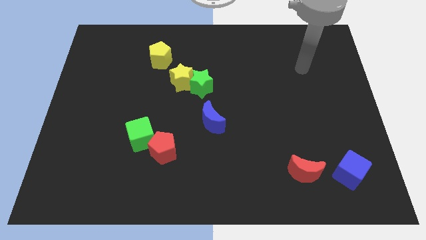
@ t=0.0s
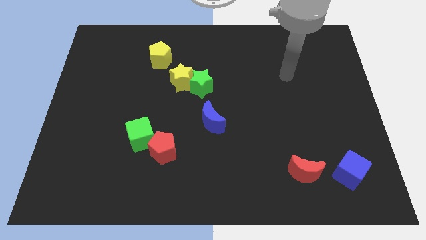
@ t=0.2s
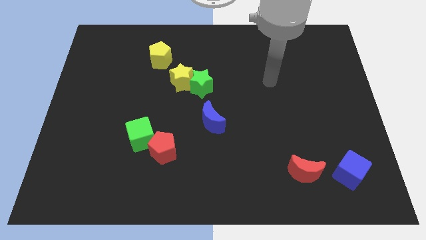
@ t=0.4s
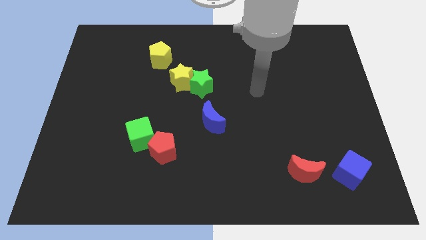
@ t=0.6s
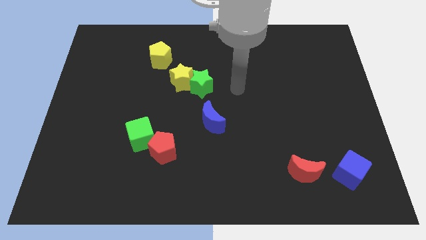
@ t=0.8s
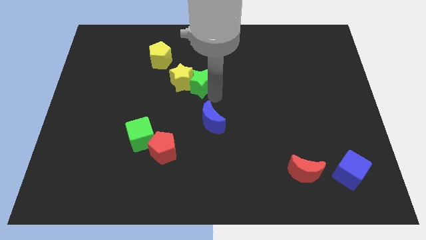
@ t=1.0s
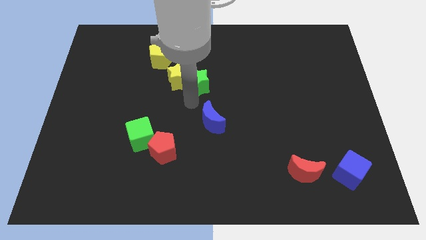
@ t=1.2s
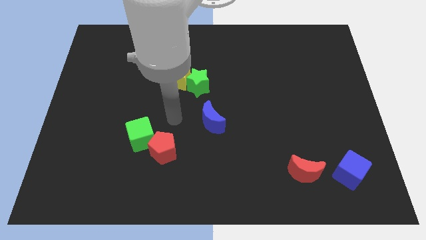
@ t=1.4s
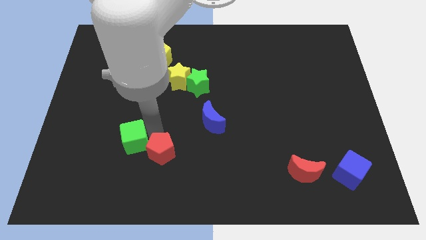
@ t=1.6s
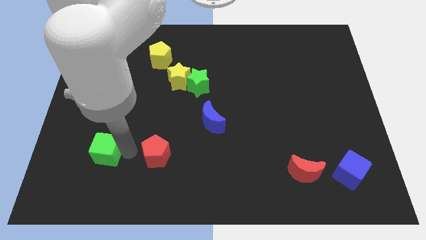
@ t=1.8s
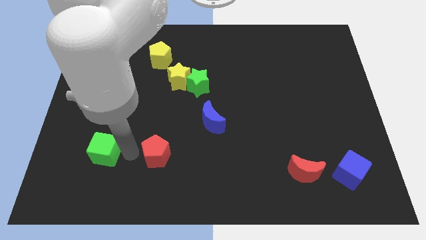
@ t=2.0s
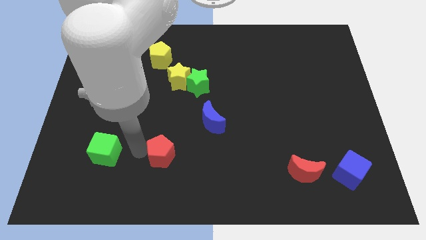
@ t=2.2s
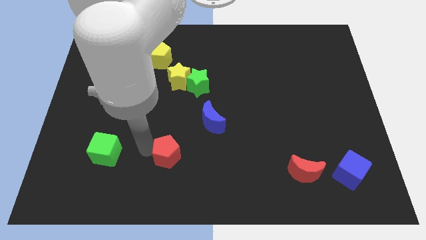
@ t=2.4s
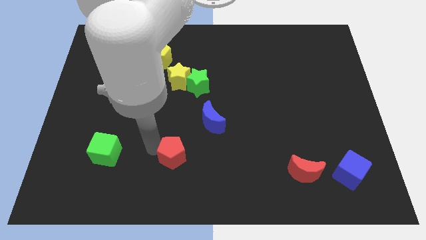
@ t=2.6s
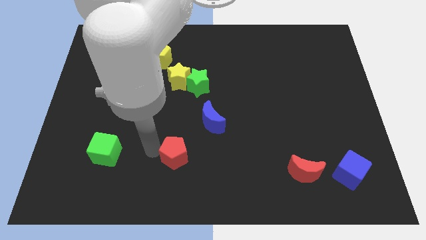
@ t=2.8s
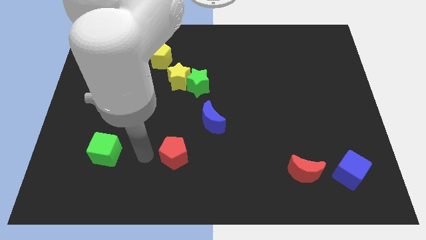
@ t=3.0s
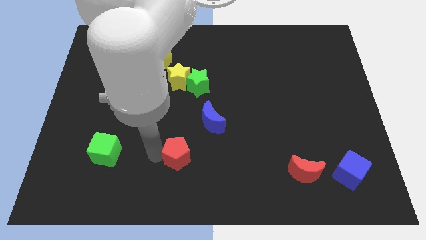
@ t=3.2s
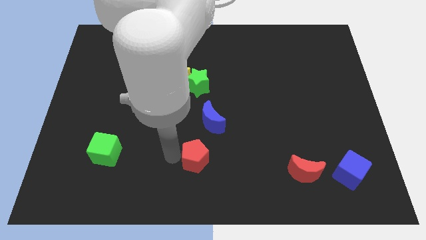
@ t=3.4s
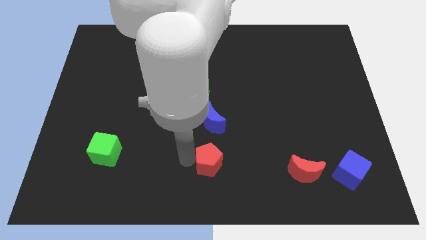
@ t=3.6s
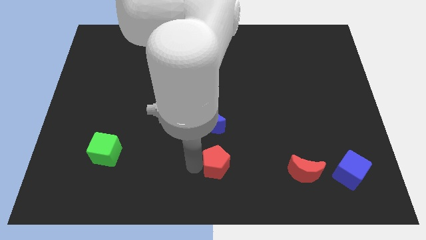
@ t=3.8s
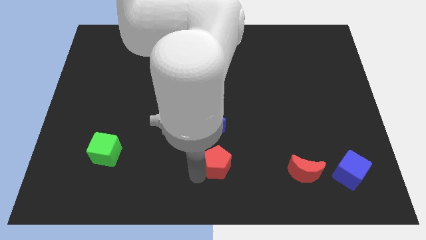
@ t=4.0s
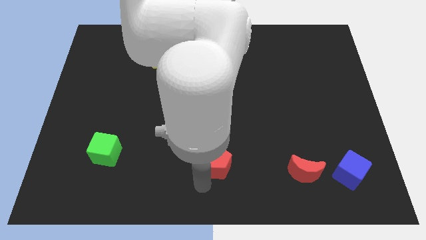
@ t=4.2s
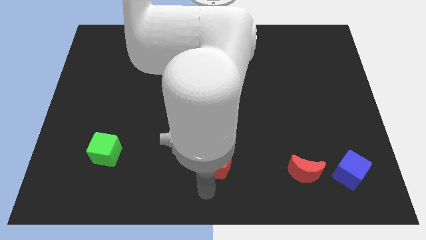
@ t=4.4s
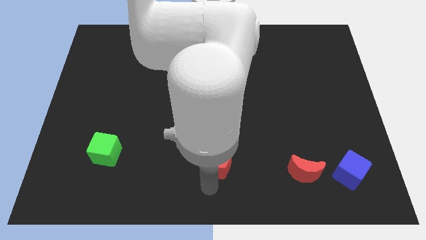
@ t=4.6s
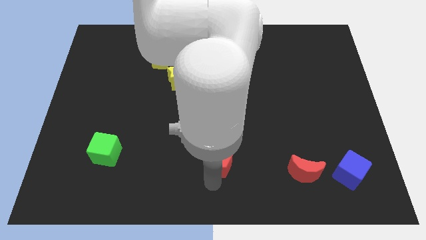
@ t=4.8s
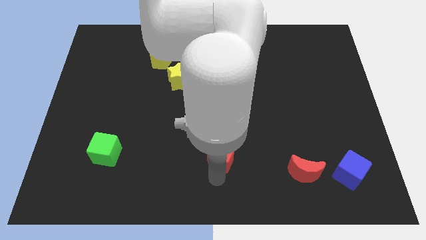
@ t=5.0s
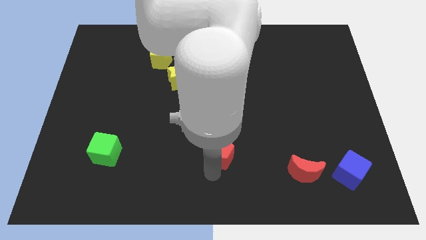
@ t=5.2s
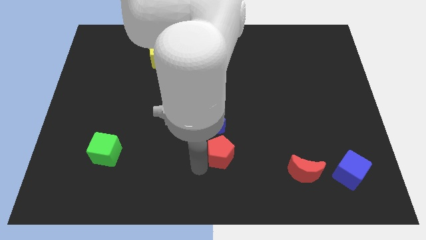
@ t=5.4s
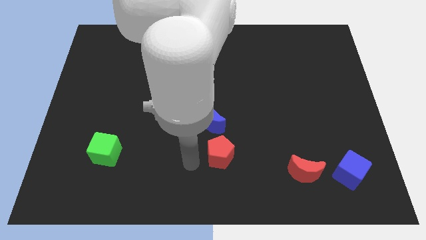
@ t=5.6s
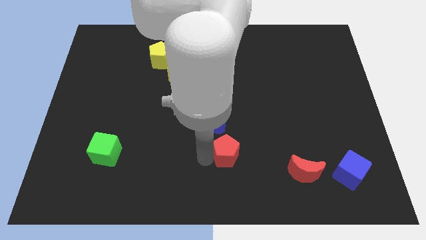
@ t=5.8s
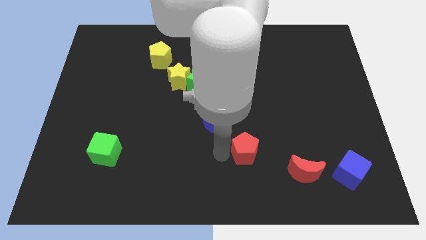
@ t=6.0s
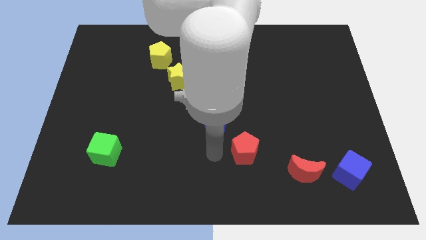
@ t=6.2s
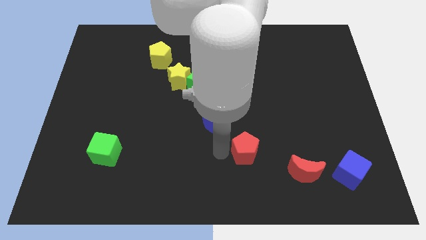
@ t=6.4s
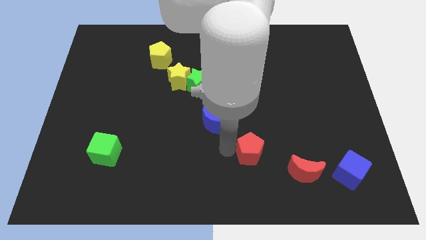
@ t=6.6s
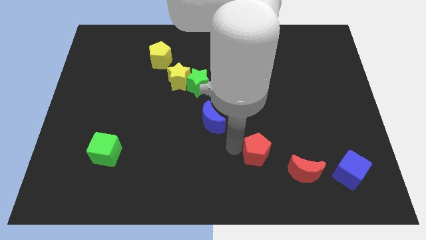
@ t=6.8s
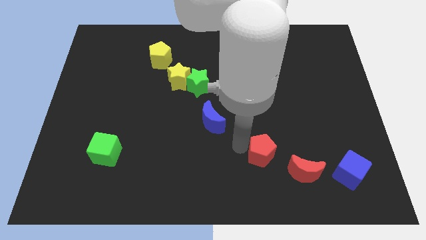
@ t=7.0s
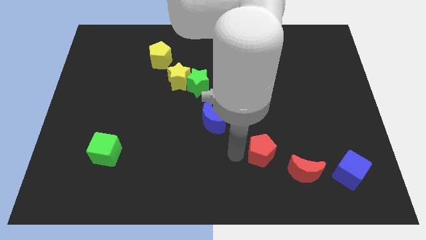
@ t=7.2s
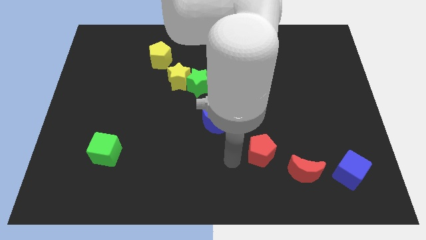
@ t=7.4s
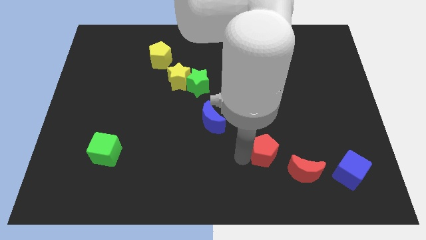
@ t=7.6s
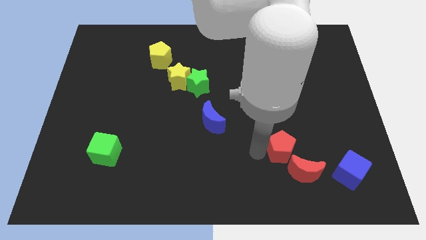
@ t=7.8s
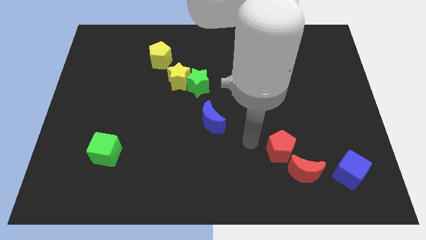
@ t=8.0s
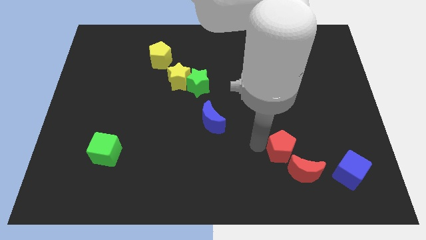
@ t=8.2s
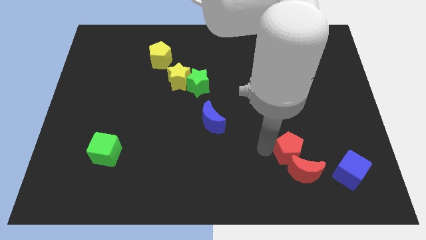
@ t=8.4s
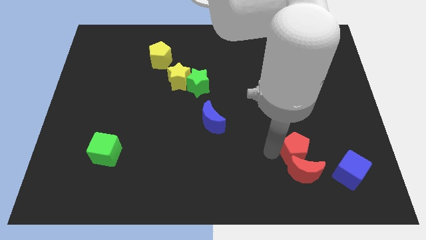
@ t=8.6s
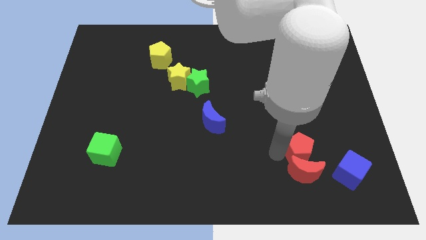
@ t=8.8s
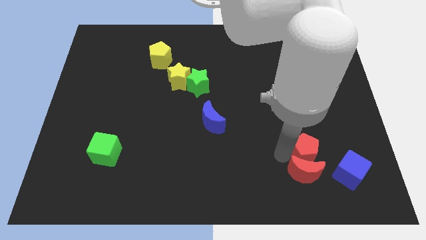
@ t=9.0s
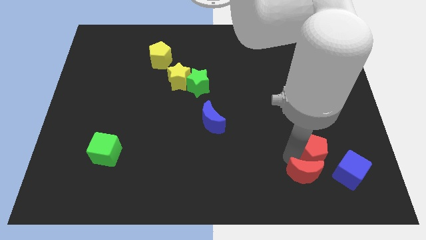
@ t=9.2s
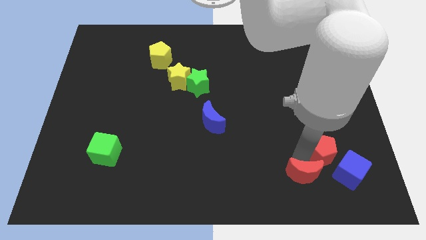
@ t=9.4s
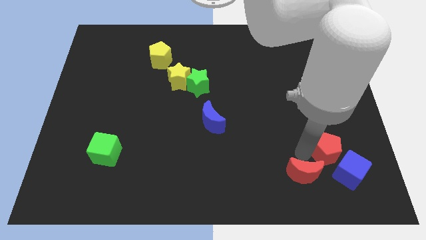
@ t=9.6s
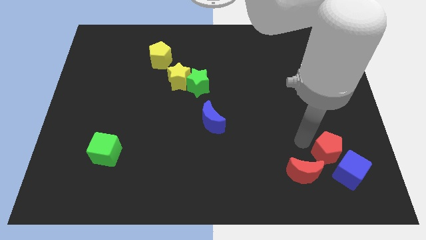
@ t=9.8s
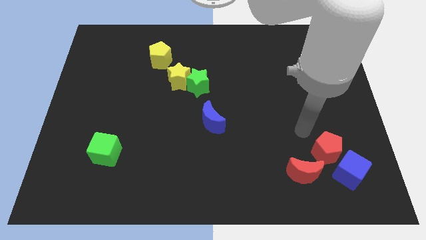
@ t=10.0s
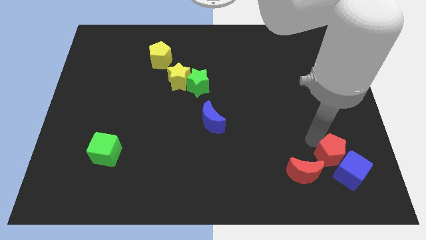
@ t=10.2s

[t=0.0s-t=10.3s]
move the red pentagon next to the blue cube

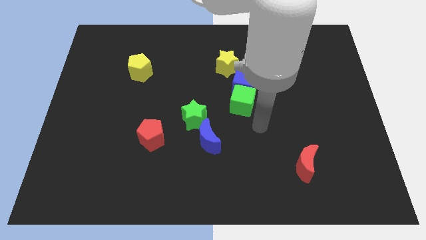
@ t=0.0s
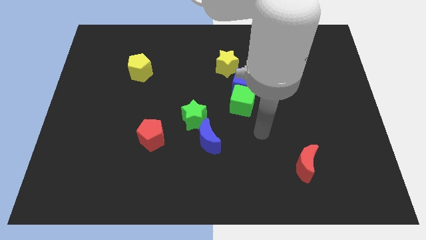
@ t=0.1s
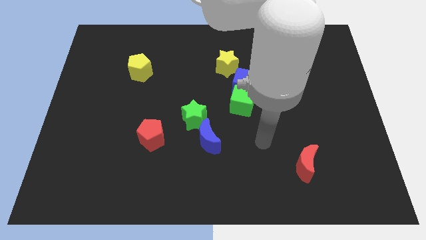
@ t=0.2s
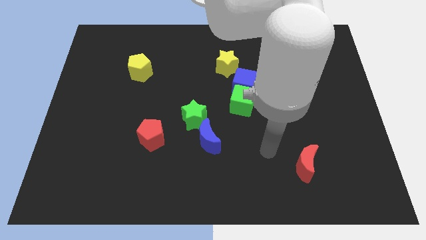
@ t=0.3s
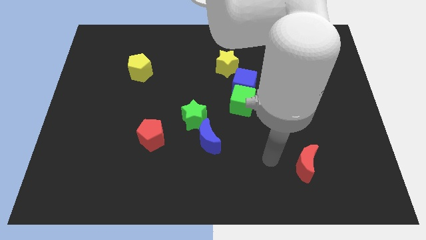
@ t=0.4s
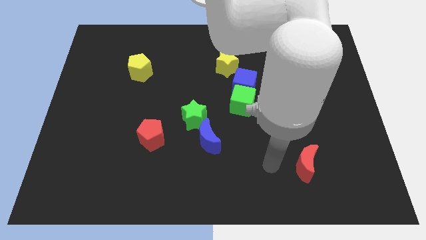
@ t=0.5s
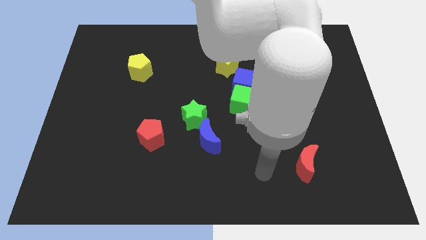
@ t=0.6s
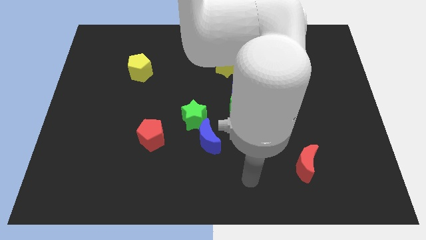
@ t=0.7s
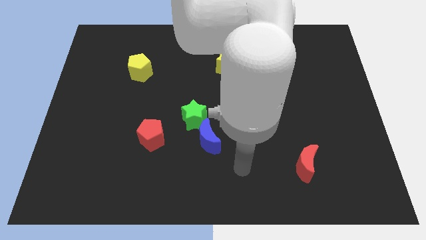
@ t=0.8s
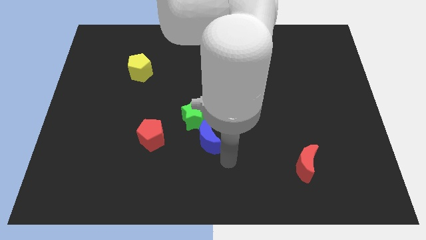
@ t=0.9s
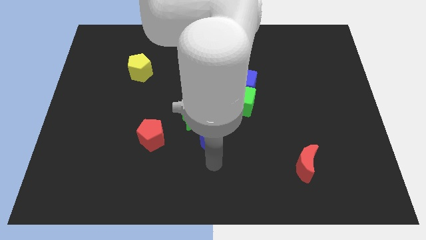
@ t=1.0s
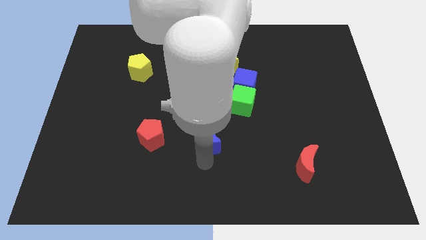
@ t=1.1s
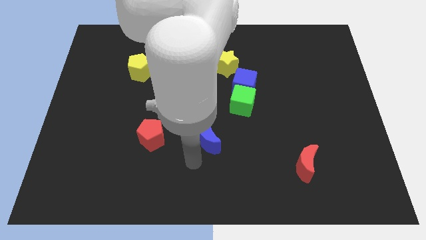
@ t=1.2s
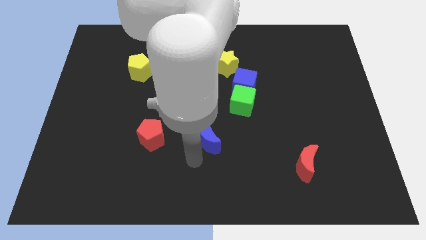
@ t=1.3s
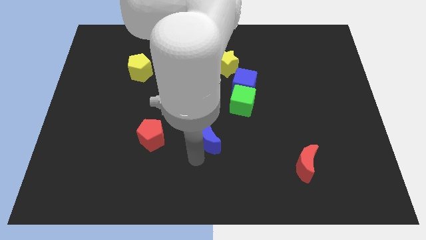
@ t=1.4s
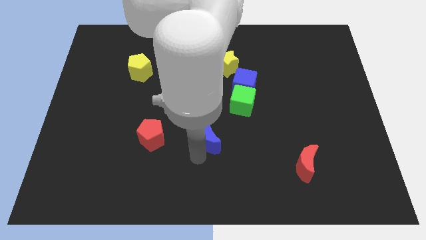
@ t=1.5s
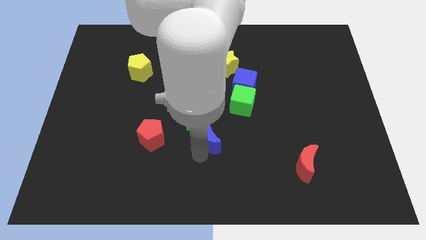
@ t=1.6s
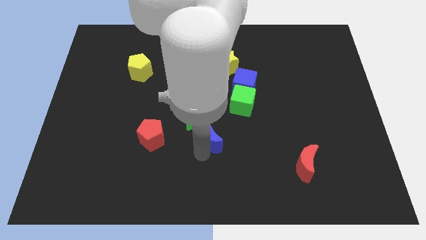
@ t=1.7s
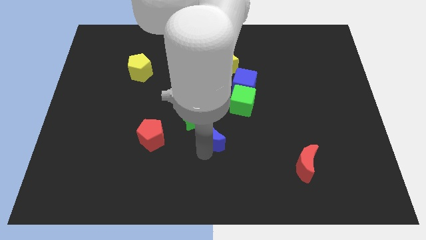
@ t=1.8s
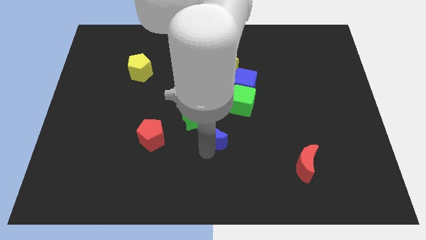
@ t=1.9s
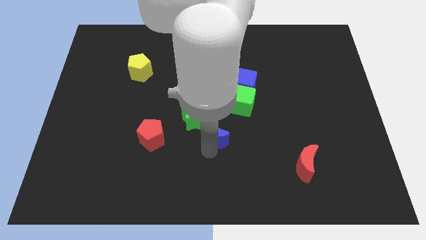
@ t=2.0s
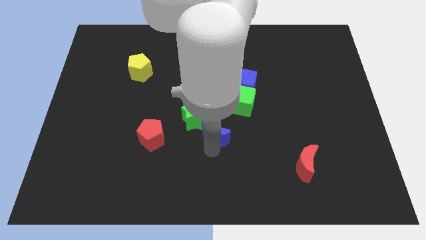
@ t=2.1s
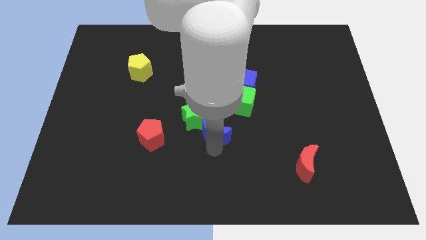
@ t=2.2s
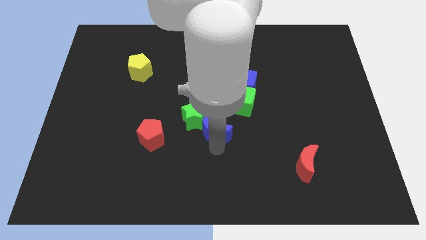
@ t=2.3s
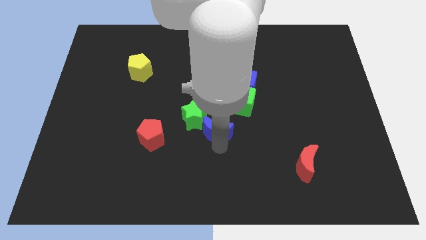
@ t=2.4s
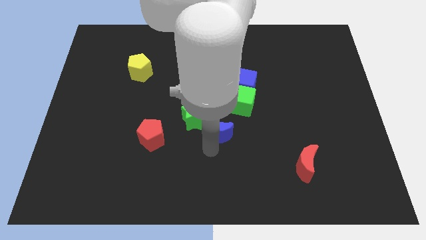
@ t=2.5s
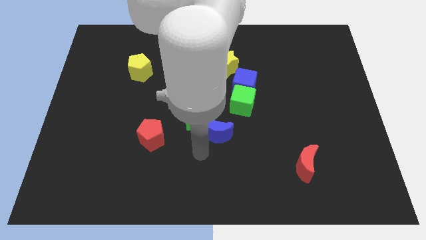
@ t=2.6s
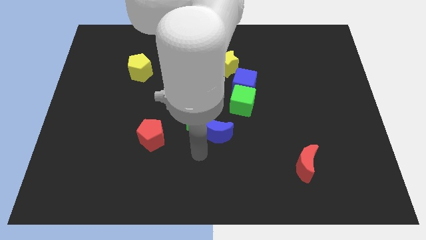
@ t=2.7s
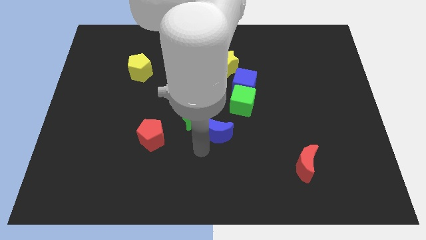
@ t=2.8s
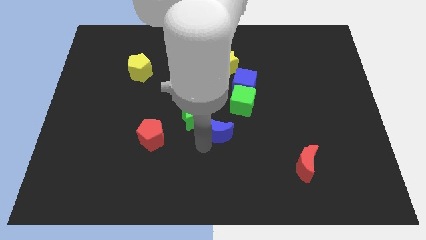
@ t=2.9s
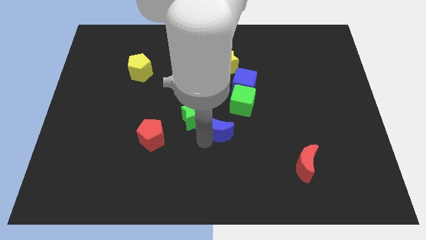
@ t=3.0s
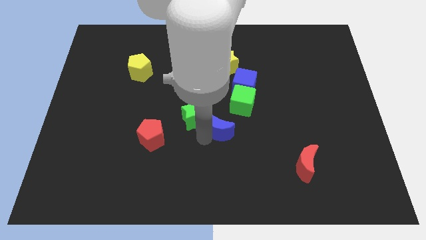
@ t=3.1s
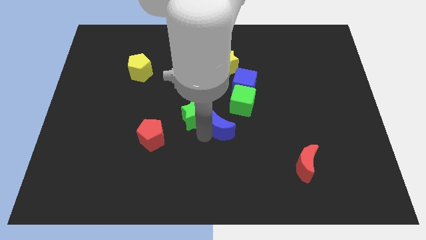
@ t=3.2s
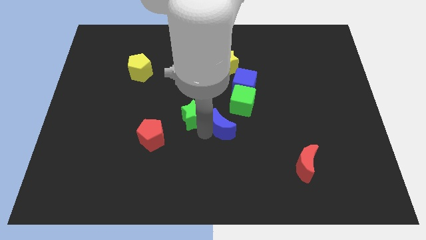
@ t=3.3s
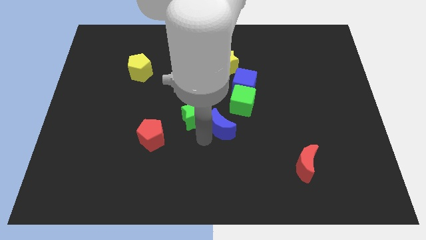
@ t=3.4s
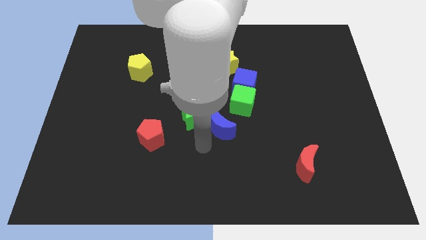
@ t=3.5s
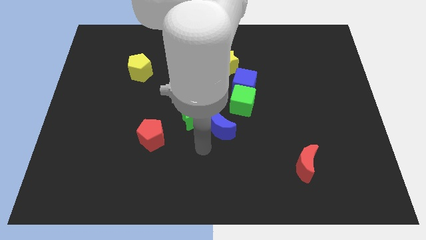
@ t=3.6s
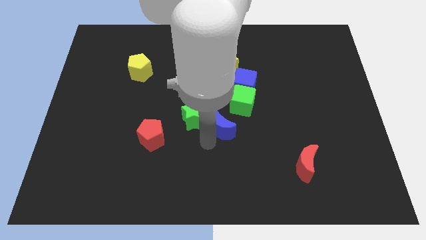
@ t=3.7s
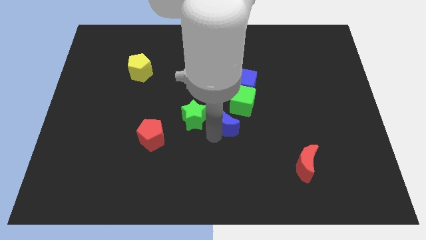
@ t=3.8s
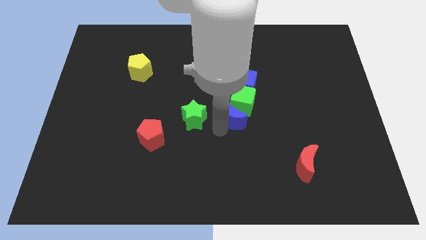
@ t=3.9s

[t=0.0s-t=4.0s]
slide the blue moon next to the green cube
